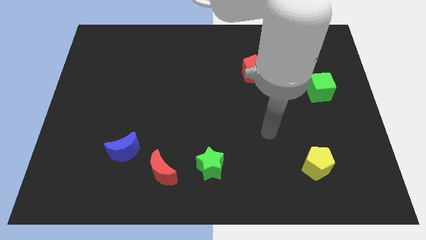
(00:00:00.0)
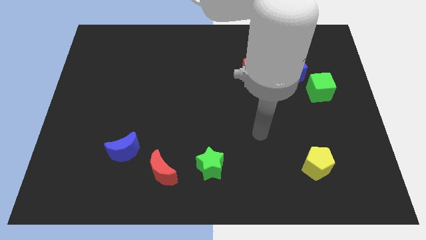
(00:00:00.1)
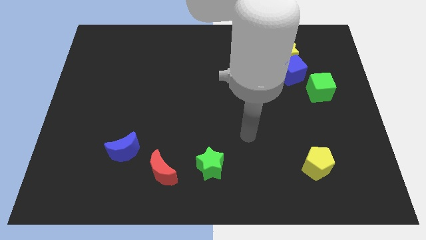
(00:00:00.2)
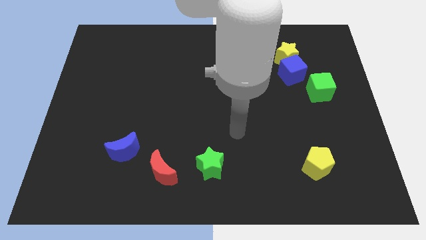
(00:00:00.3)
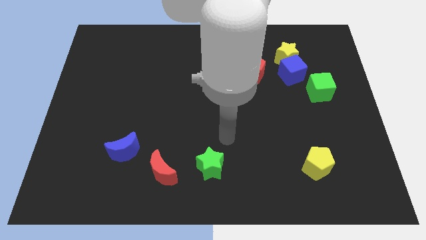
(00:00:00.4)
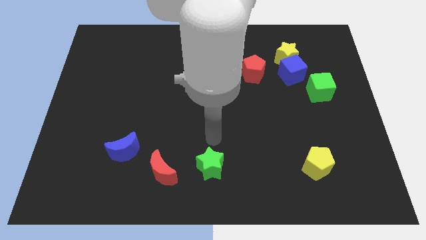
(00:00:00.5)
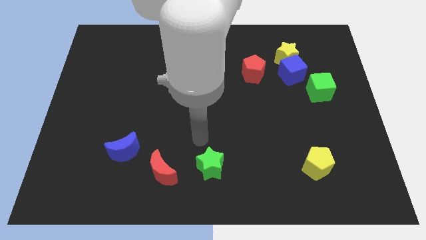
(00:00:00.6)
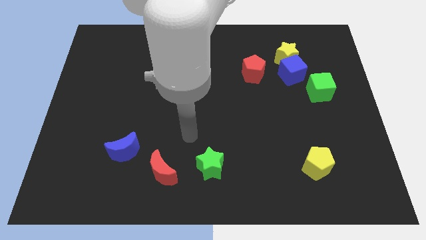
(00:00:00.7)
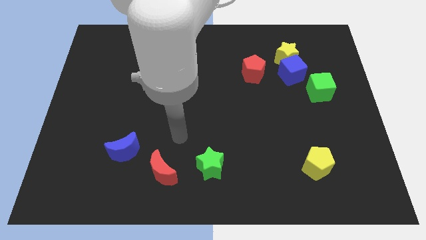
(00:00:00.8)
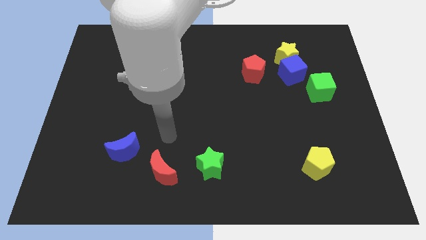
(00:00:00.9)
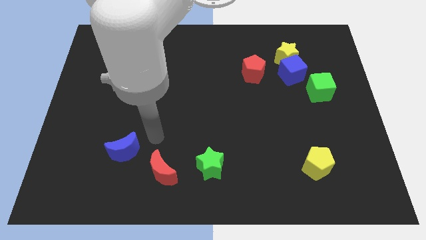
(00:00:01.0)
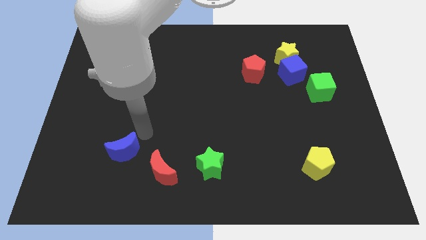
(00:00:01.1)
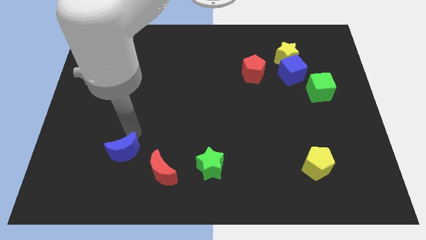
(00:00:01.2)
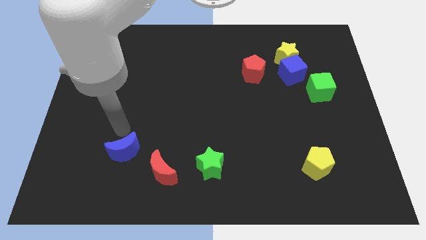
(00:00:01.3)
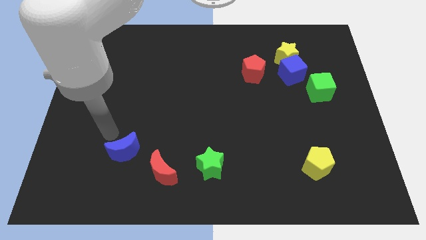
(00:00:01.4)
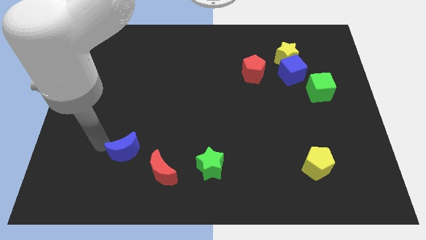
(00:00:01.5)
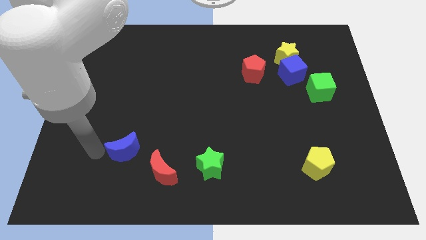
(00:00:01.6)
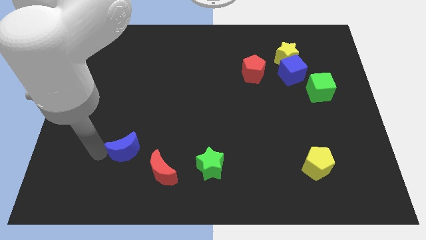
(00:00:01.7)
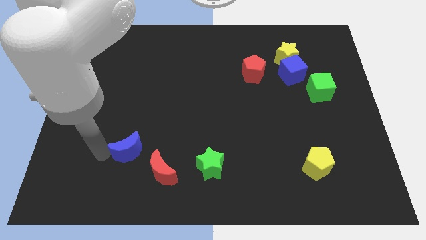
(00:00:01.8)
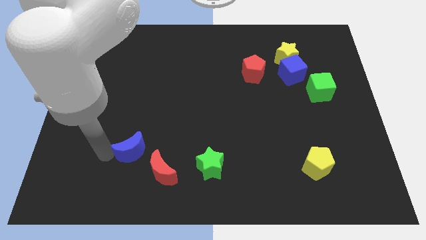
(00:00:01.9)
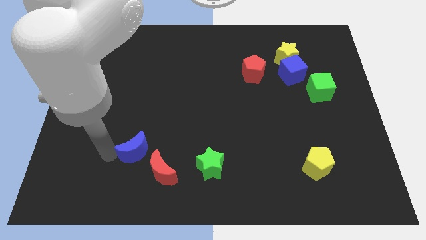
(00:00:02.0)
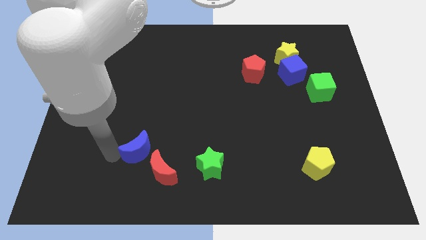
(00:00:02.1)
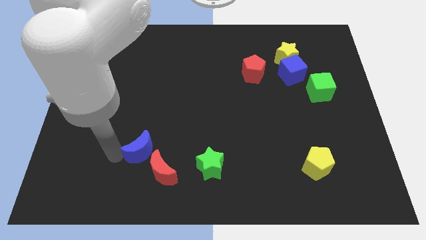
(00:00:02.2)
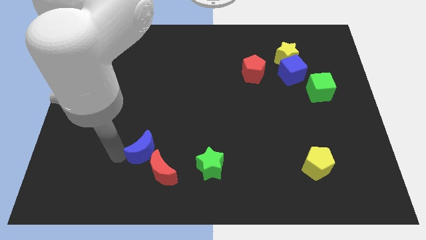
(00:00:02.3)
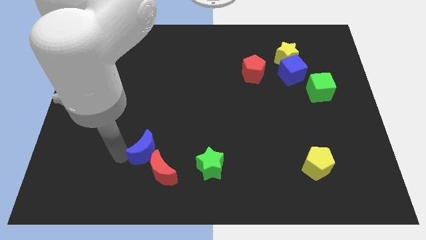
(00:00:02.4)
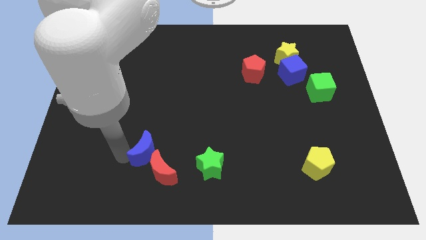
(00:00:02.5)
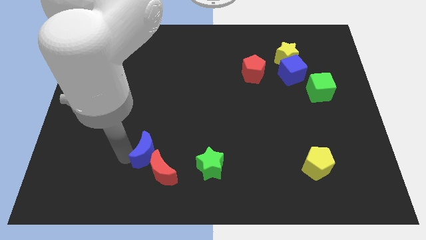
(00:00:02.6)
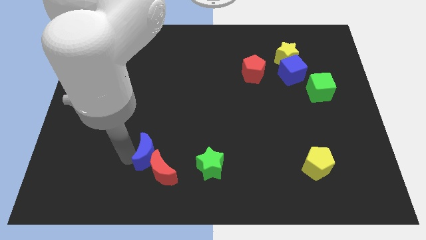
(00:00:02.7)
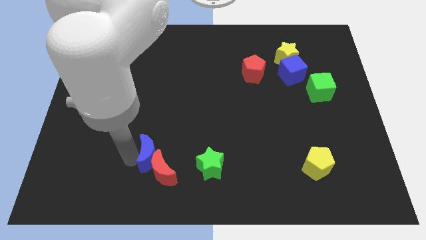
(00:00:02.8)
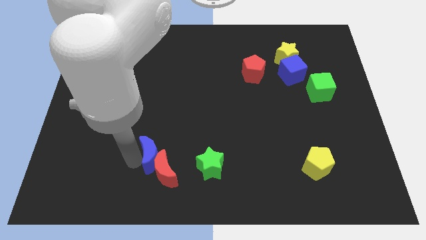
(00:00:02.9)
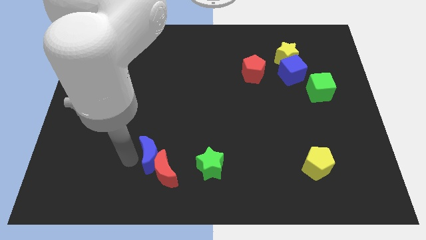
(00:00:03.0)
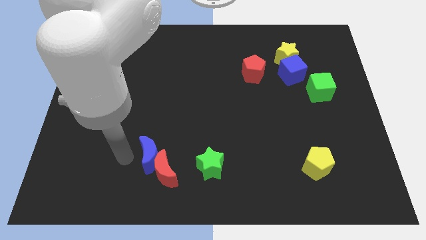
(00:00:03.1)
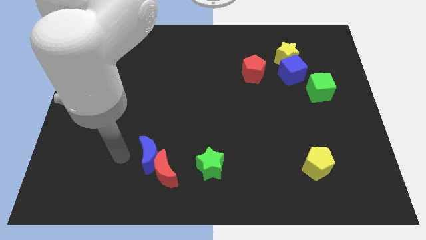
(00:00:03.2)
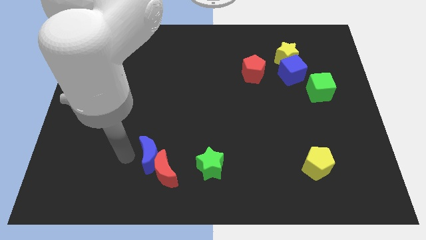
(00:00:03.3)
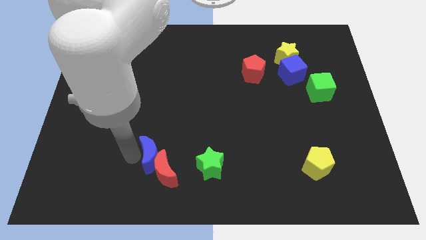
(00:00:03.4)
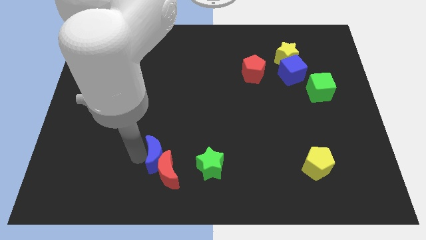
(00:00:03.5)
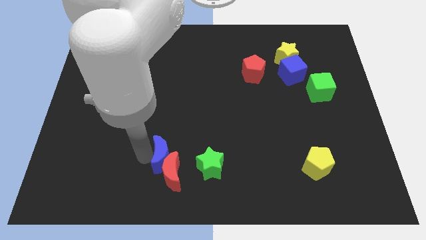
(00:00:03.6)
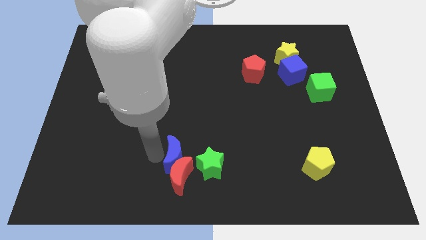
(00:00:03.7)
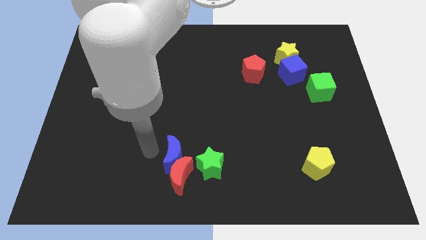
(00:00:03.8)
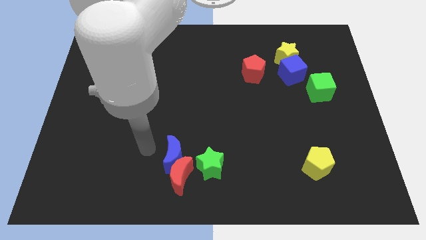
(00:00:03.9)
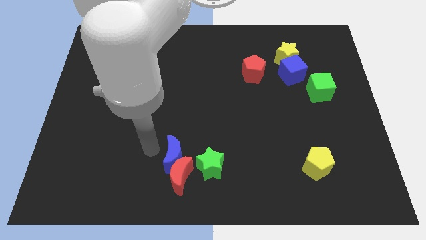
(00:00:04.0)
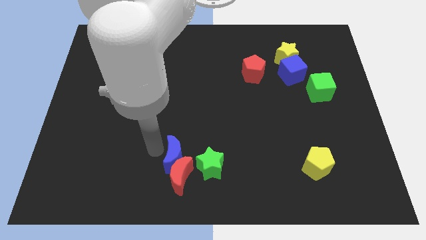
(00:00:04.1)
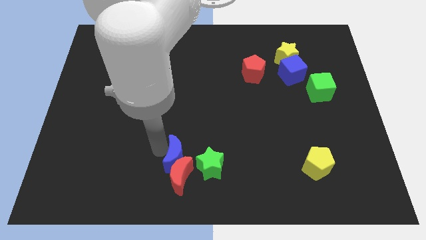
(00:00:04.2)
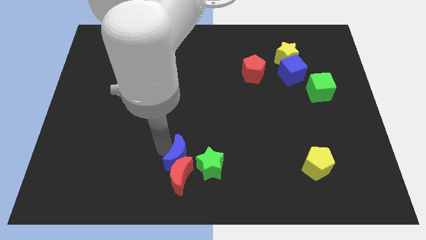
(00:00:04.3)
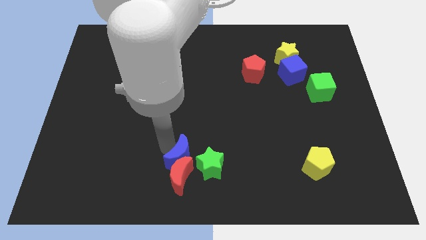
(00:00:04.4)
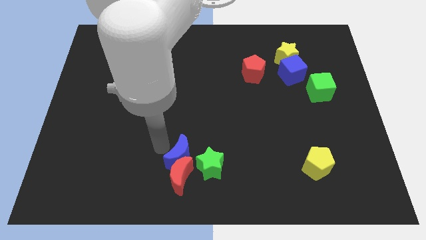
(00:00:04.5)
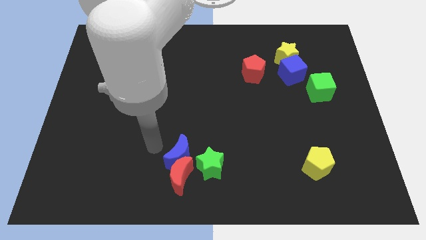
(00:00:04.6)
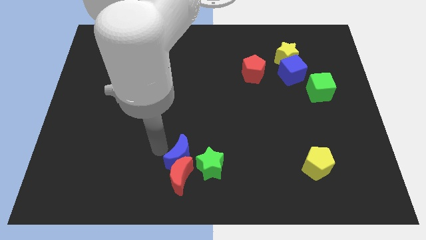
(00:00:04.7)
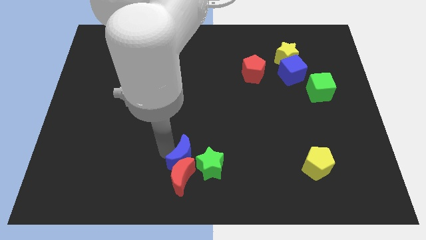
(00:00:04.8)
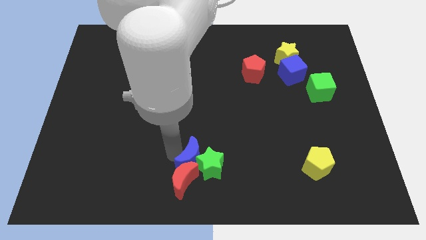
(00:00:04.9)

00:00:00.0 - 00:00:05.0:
slide the blue moon to the green star

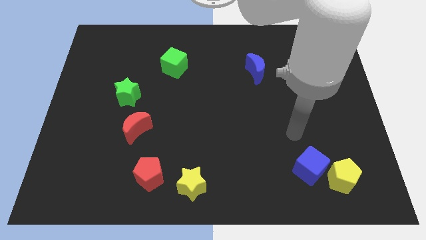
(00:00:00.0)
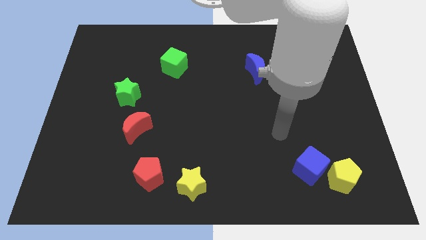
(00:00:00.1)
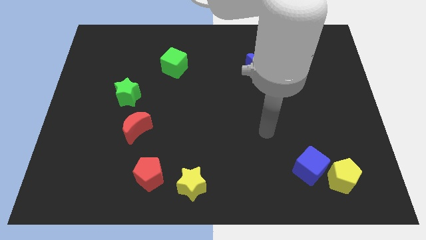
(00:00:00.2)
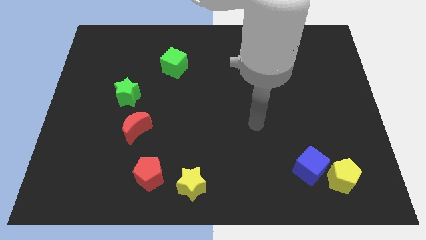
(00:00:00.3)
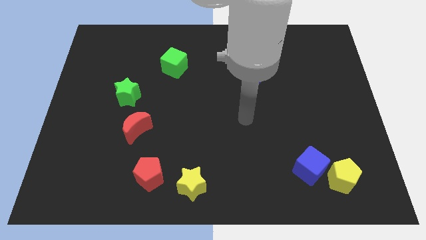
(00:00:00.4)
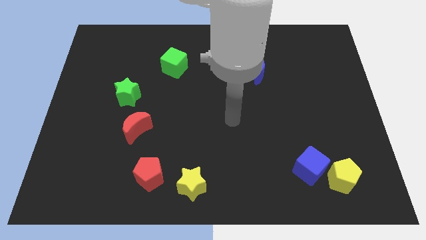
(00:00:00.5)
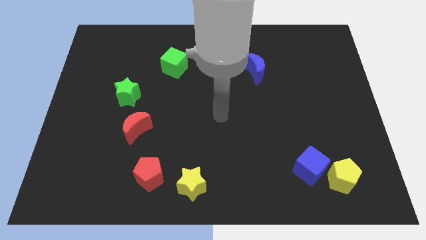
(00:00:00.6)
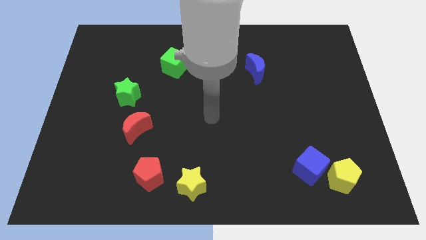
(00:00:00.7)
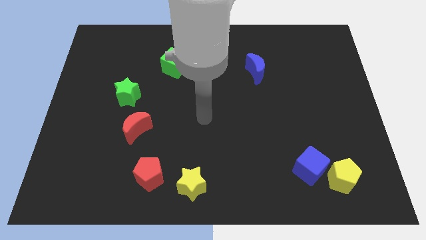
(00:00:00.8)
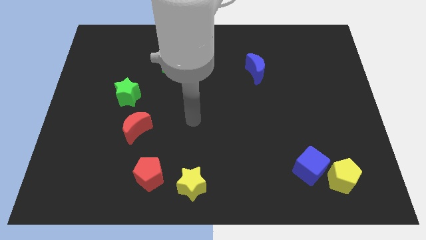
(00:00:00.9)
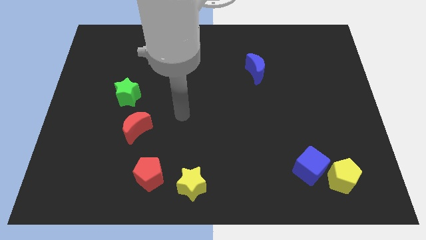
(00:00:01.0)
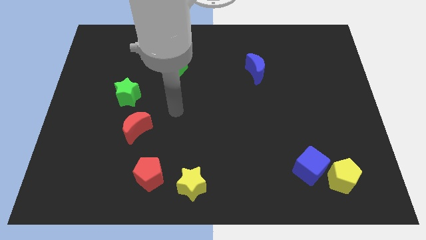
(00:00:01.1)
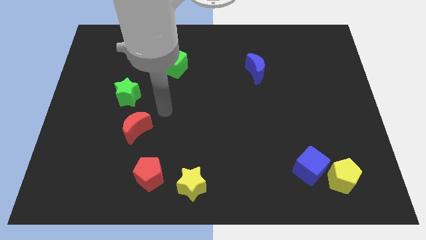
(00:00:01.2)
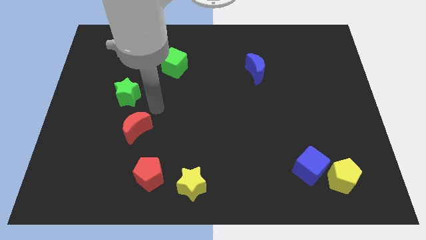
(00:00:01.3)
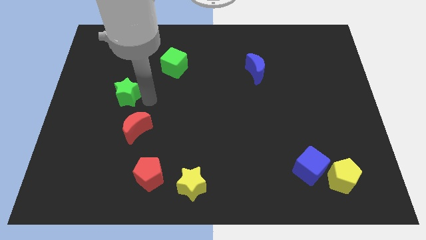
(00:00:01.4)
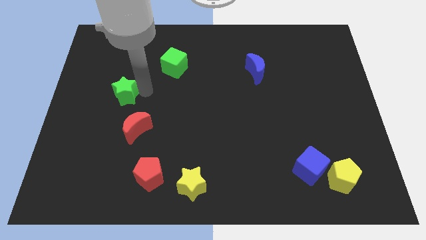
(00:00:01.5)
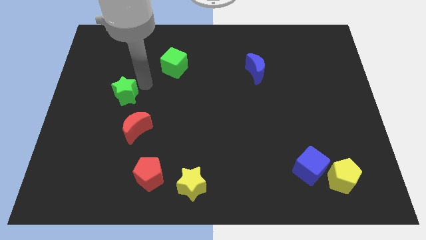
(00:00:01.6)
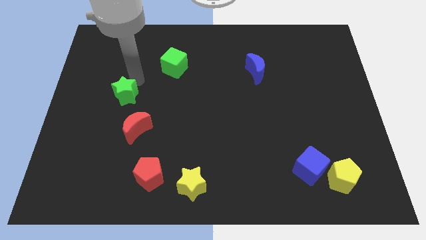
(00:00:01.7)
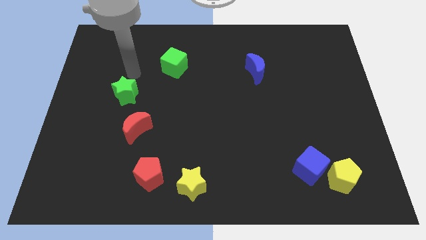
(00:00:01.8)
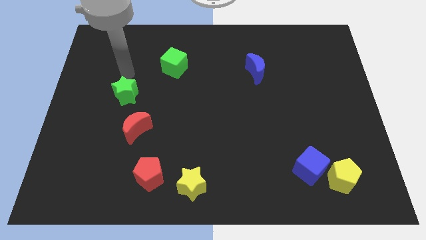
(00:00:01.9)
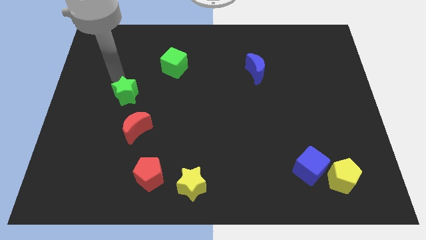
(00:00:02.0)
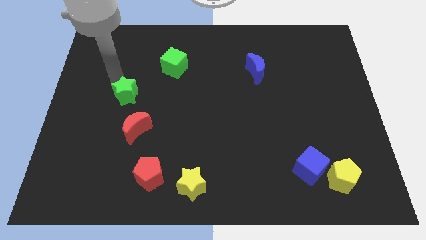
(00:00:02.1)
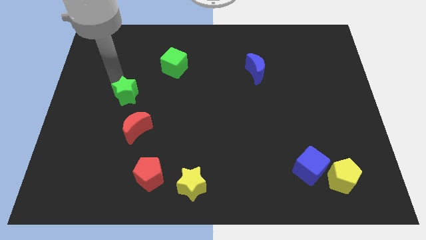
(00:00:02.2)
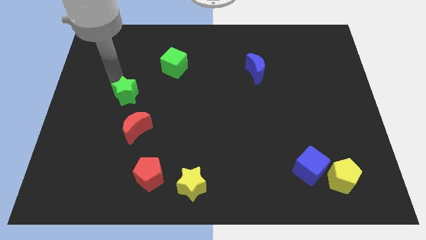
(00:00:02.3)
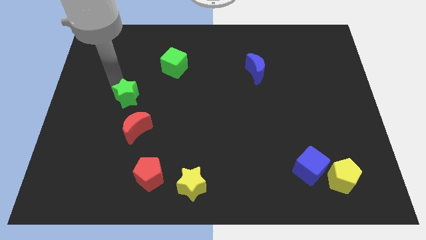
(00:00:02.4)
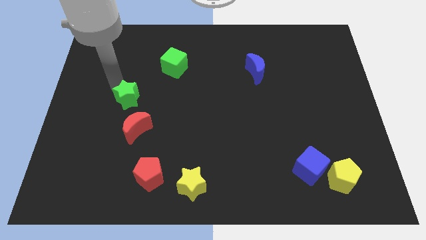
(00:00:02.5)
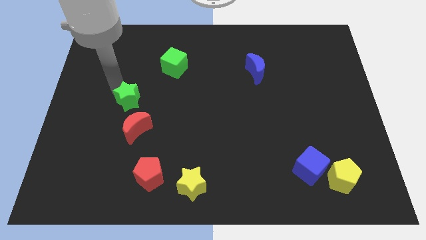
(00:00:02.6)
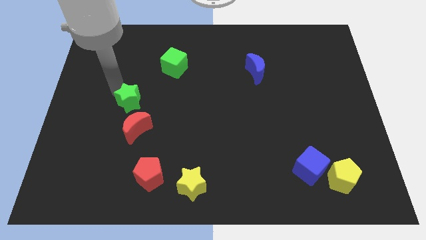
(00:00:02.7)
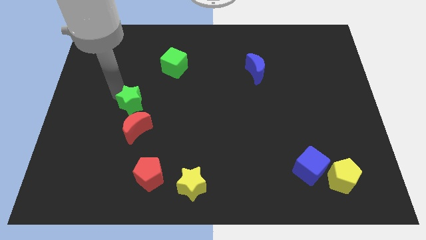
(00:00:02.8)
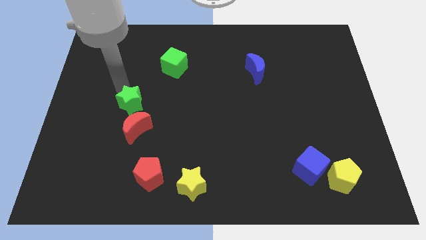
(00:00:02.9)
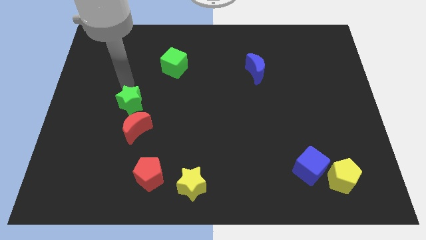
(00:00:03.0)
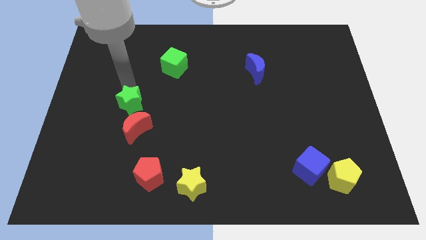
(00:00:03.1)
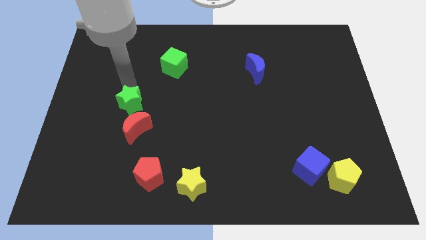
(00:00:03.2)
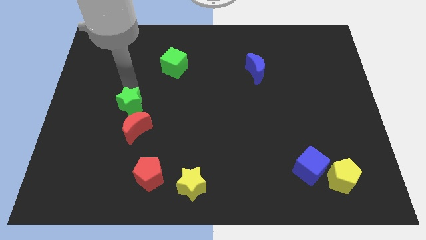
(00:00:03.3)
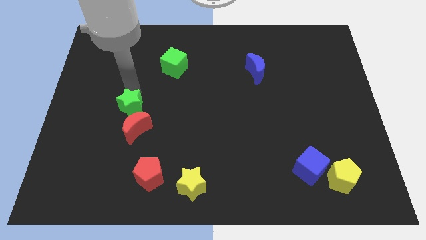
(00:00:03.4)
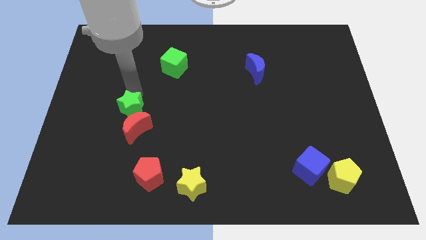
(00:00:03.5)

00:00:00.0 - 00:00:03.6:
push the green star to the red moon
